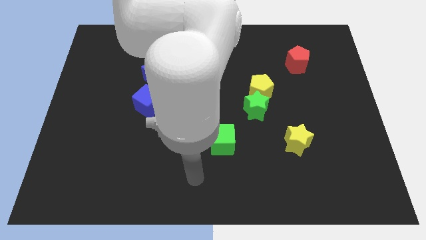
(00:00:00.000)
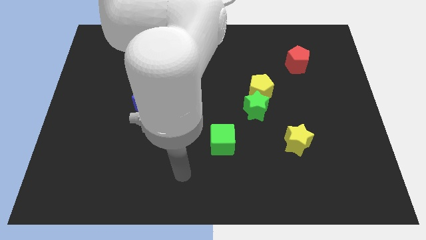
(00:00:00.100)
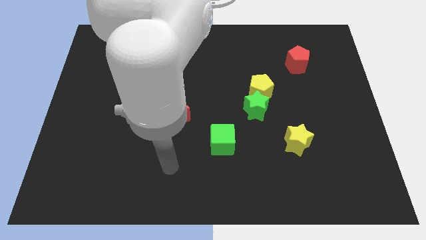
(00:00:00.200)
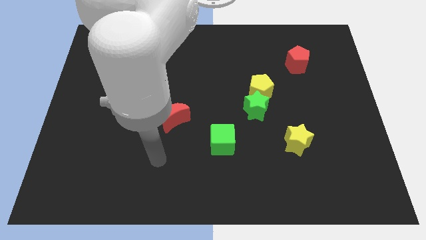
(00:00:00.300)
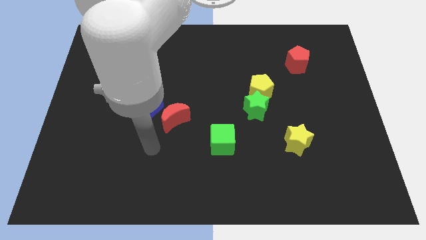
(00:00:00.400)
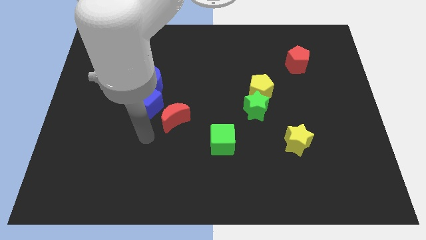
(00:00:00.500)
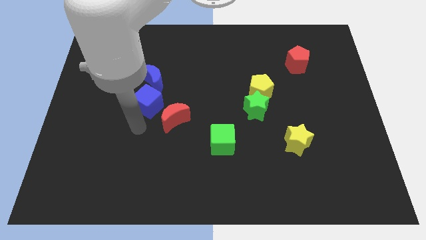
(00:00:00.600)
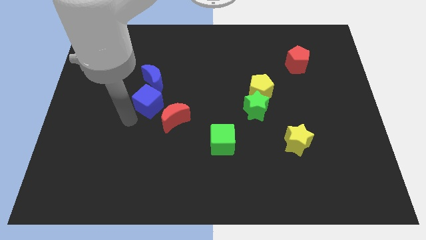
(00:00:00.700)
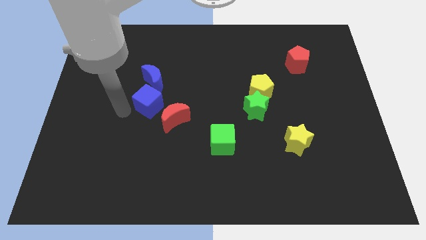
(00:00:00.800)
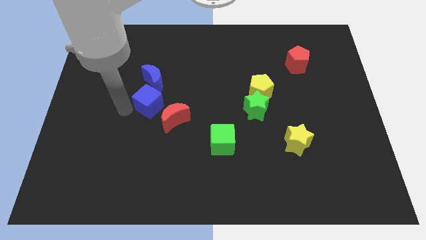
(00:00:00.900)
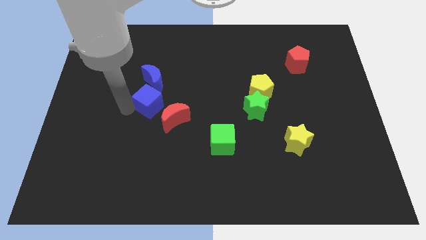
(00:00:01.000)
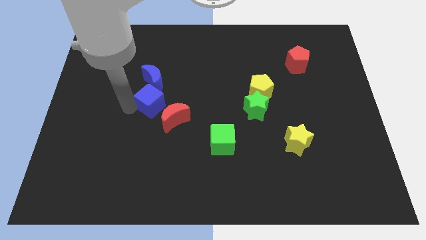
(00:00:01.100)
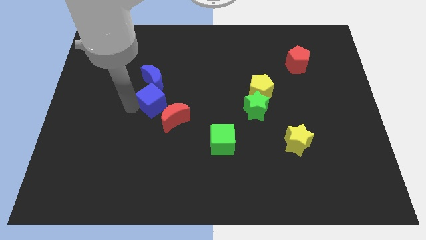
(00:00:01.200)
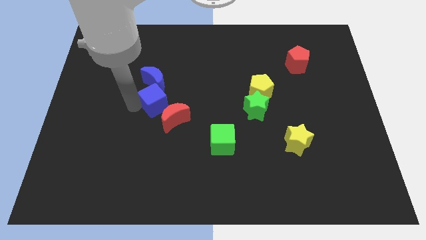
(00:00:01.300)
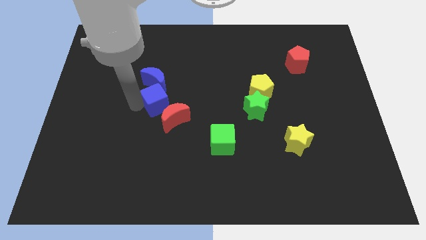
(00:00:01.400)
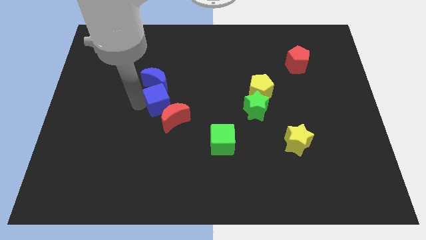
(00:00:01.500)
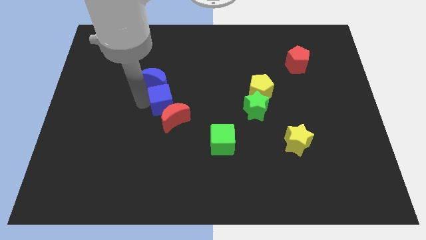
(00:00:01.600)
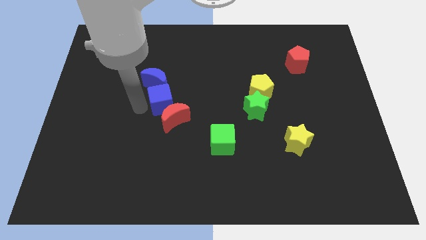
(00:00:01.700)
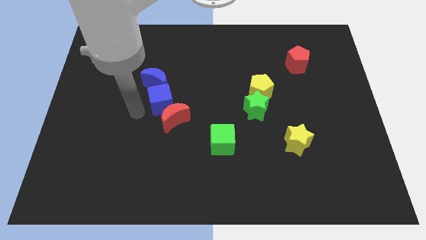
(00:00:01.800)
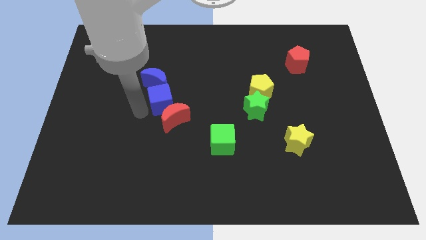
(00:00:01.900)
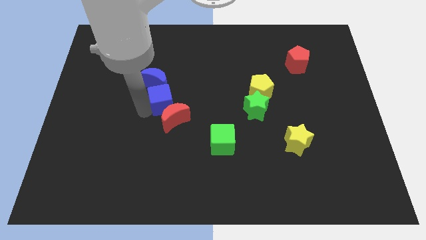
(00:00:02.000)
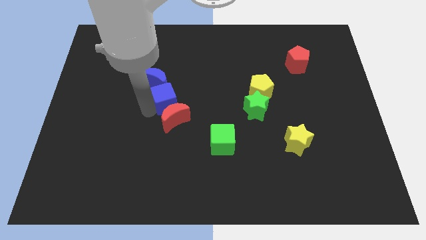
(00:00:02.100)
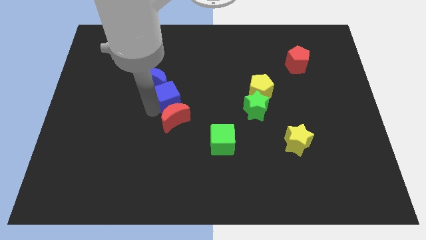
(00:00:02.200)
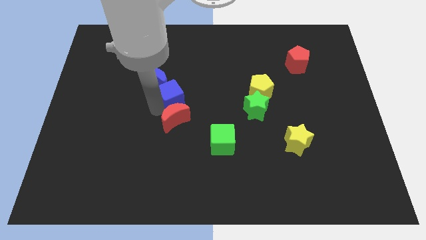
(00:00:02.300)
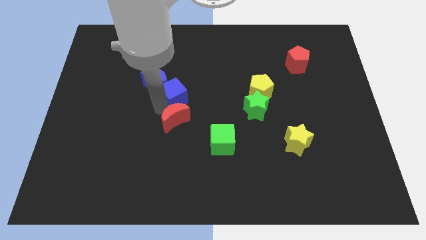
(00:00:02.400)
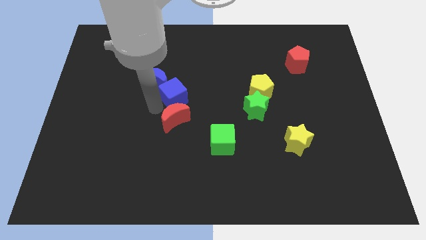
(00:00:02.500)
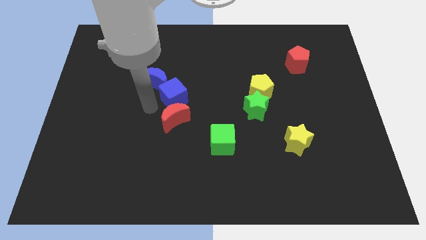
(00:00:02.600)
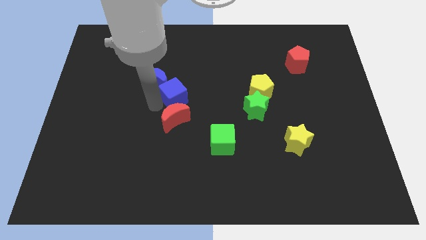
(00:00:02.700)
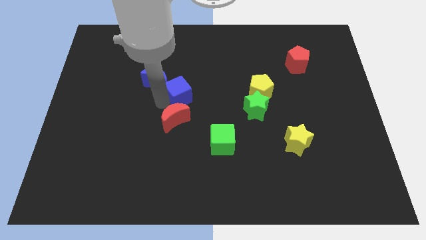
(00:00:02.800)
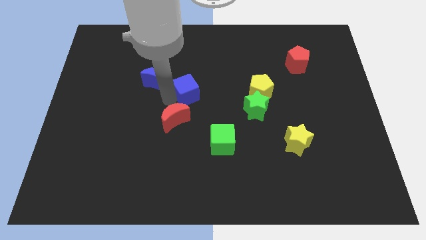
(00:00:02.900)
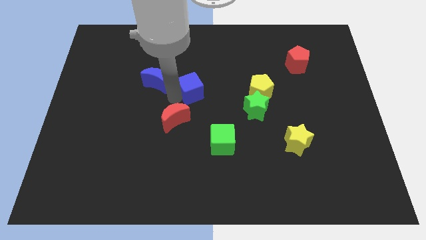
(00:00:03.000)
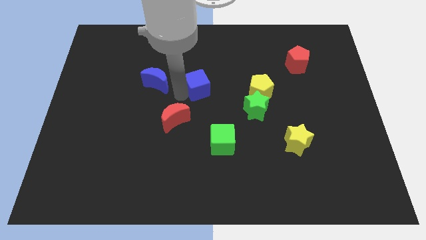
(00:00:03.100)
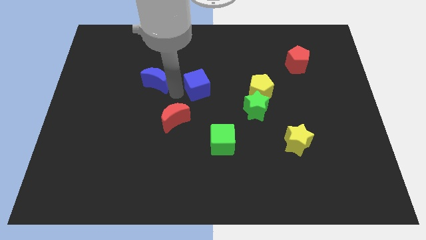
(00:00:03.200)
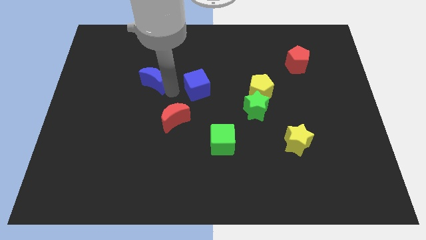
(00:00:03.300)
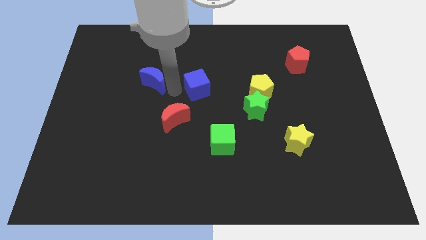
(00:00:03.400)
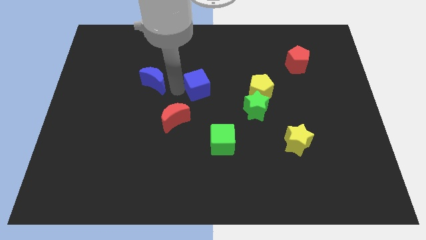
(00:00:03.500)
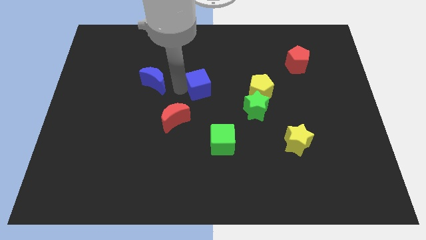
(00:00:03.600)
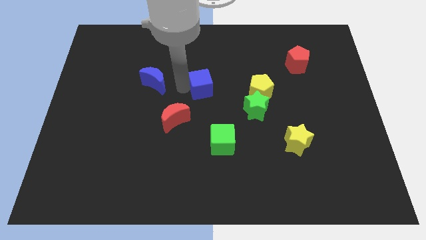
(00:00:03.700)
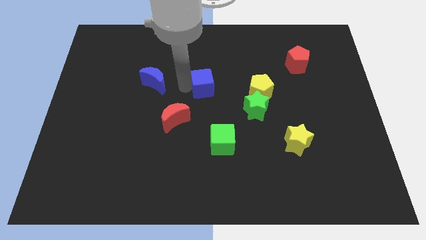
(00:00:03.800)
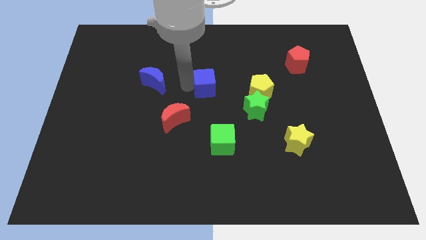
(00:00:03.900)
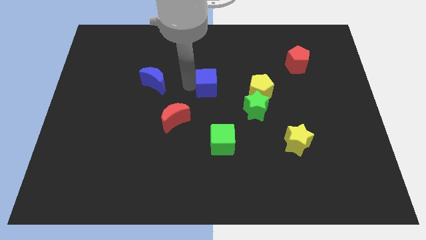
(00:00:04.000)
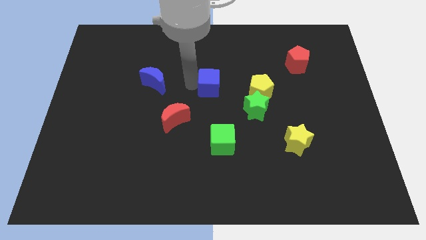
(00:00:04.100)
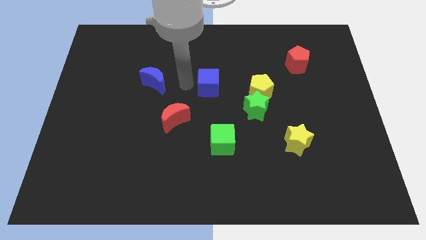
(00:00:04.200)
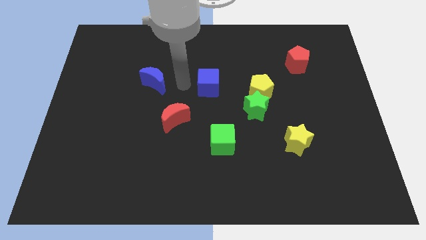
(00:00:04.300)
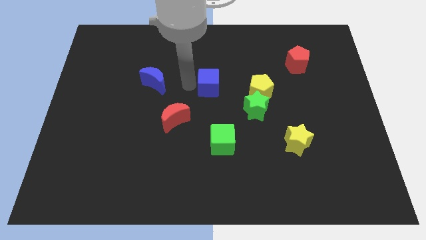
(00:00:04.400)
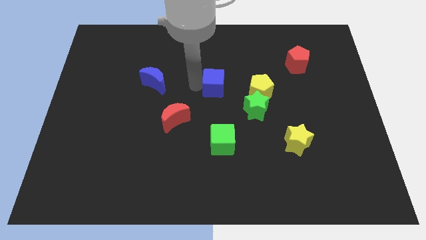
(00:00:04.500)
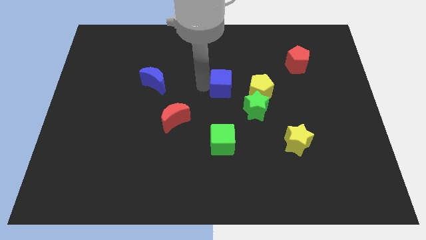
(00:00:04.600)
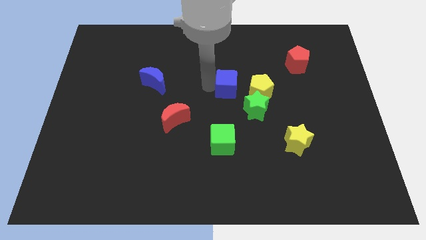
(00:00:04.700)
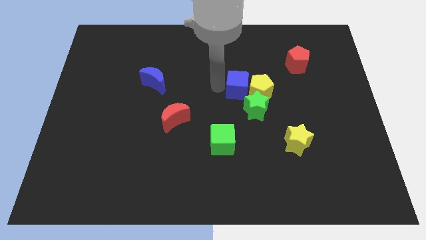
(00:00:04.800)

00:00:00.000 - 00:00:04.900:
push the blue cube next to the yellow pentagon

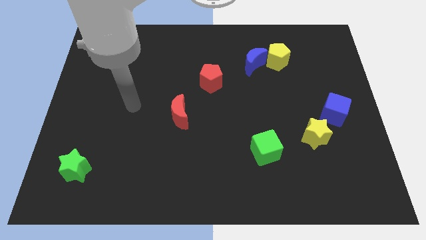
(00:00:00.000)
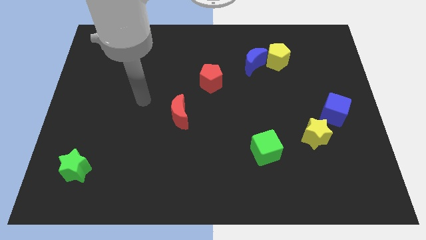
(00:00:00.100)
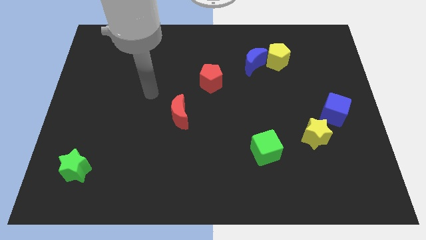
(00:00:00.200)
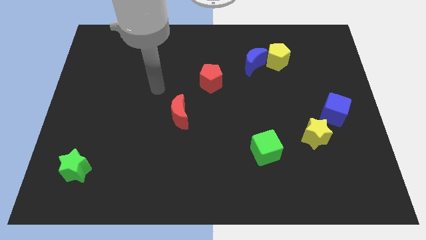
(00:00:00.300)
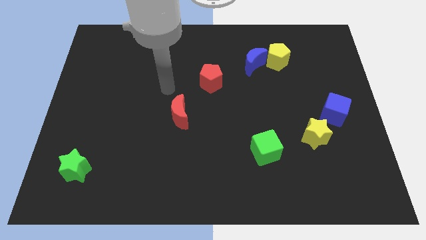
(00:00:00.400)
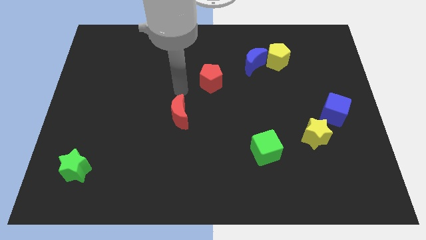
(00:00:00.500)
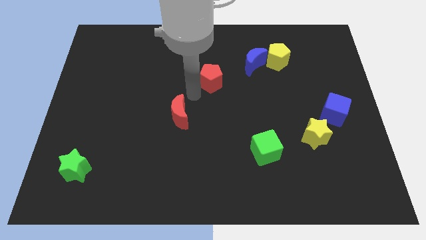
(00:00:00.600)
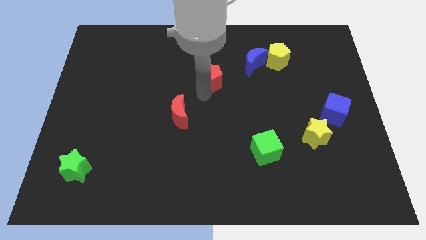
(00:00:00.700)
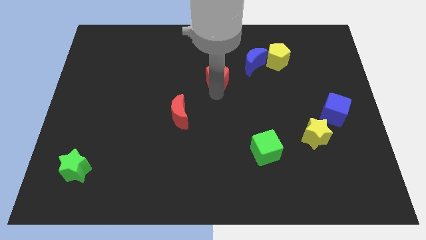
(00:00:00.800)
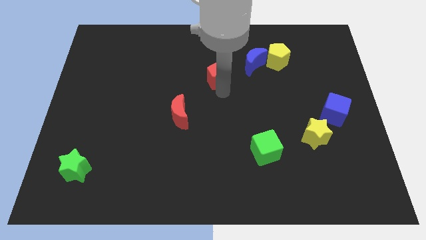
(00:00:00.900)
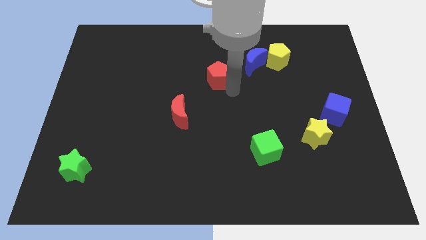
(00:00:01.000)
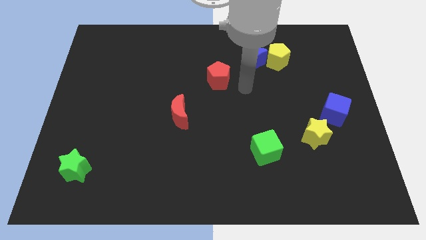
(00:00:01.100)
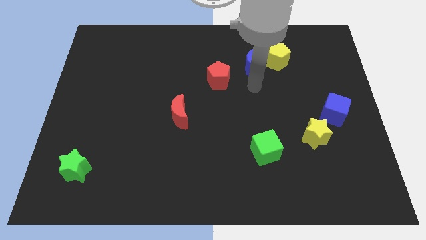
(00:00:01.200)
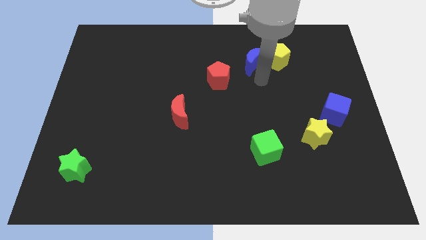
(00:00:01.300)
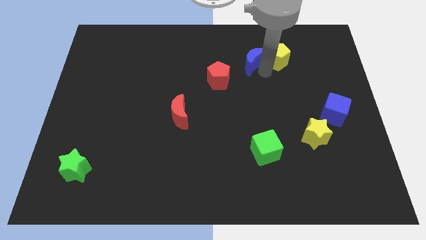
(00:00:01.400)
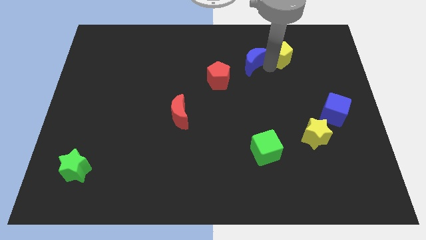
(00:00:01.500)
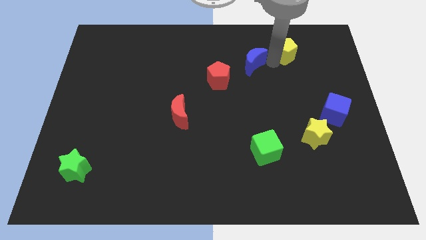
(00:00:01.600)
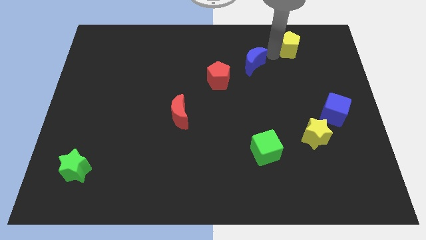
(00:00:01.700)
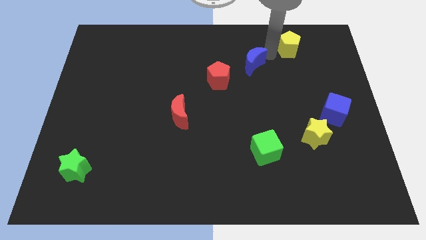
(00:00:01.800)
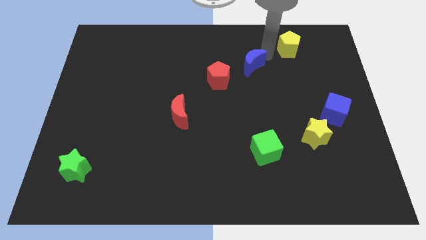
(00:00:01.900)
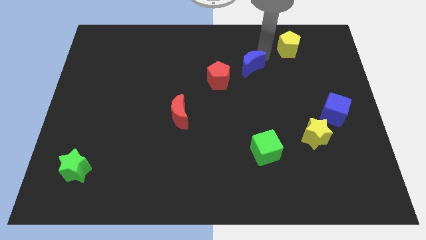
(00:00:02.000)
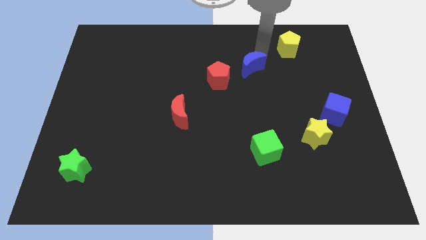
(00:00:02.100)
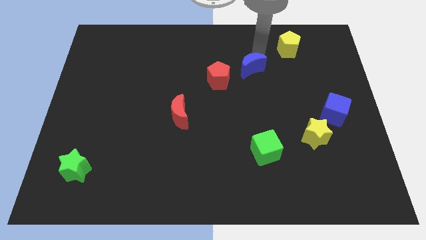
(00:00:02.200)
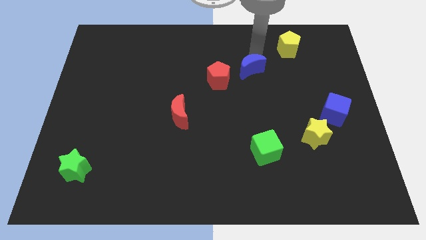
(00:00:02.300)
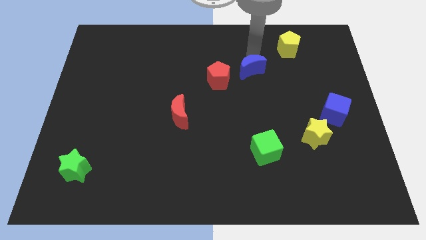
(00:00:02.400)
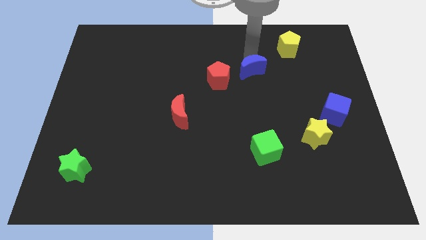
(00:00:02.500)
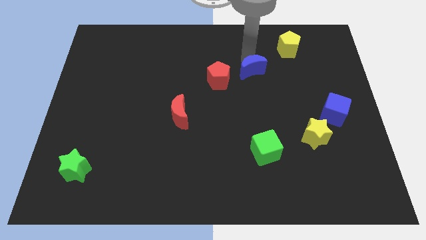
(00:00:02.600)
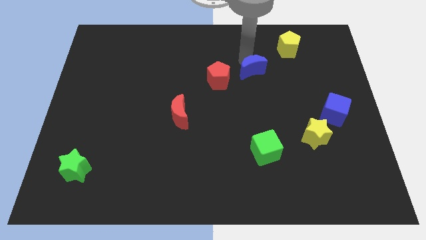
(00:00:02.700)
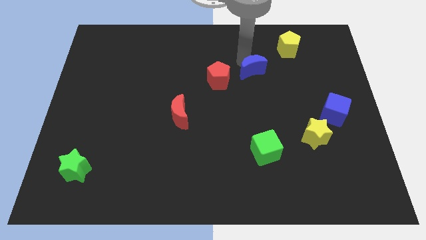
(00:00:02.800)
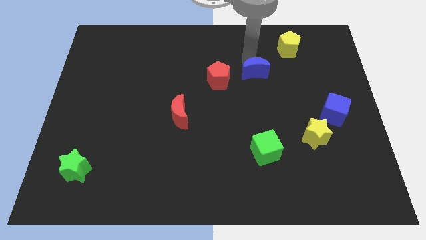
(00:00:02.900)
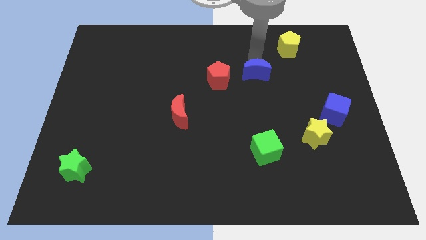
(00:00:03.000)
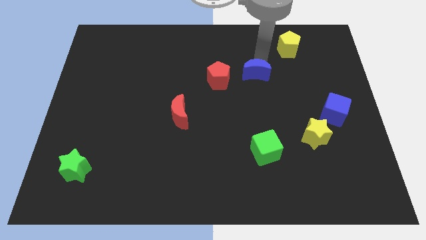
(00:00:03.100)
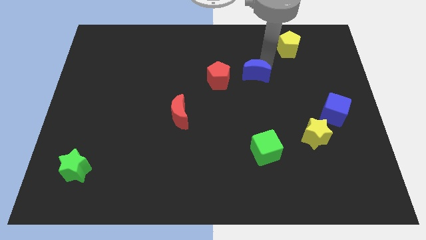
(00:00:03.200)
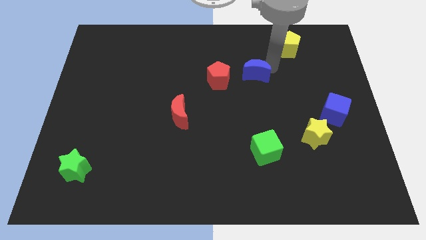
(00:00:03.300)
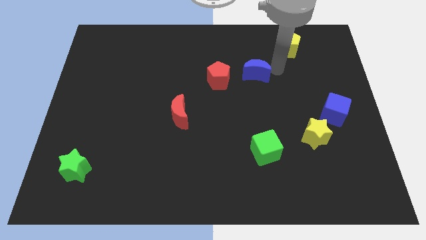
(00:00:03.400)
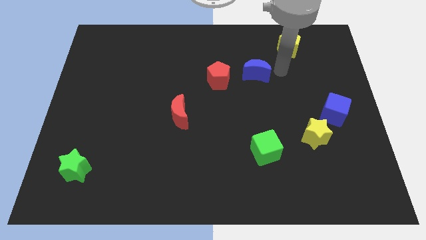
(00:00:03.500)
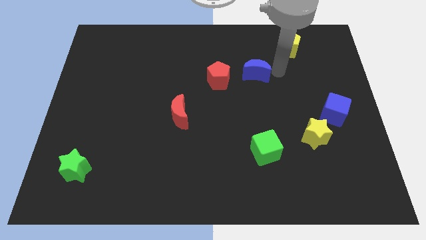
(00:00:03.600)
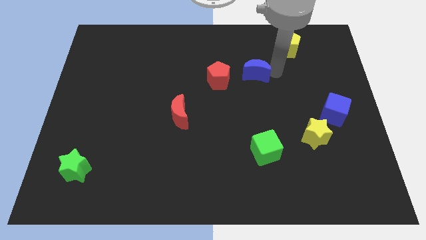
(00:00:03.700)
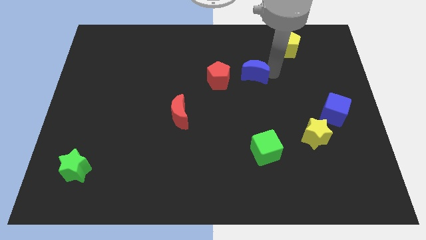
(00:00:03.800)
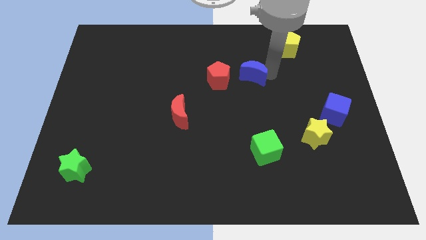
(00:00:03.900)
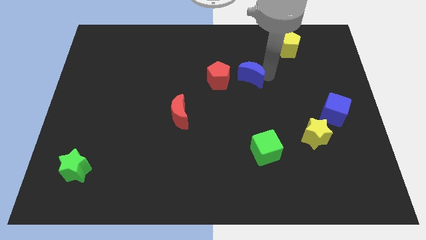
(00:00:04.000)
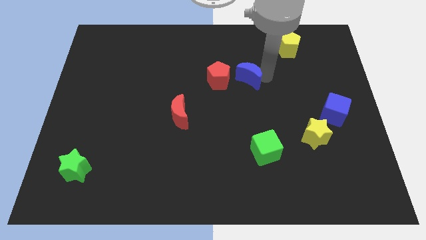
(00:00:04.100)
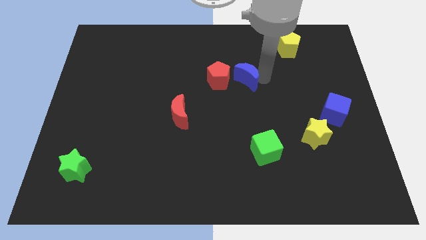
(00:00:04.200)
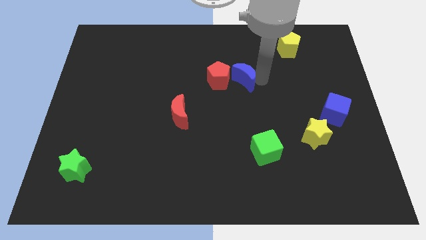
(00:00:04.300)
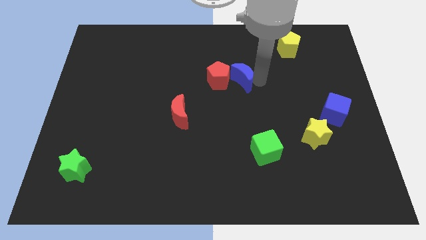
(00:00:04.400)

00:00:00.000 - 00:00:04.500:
put the blue moon next to the red pentagon
